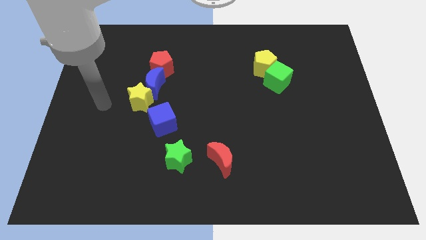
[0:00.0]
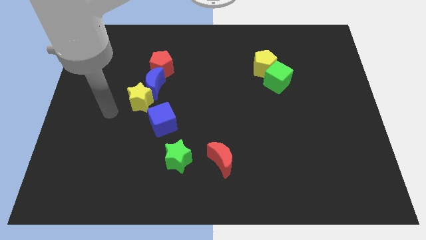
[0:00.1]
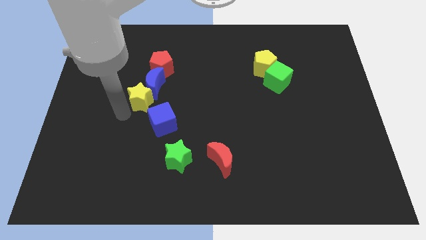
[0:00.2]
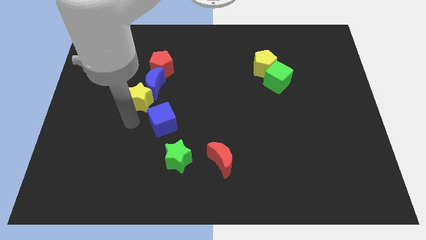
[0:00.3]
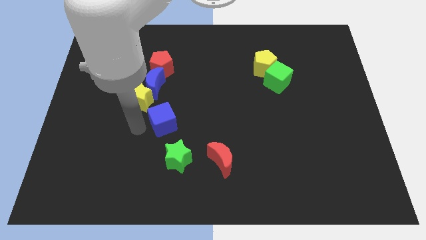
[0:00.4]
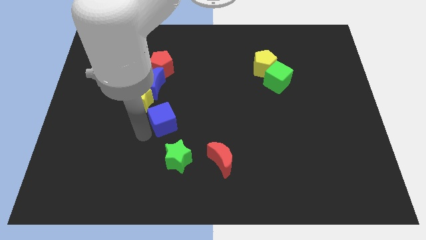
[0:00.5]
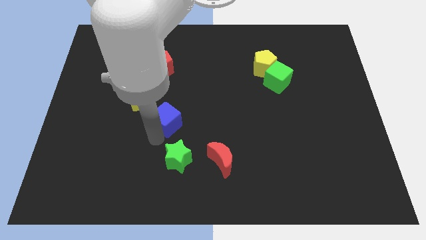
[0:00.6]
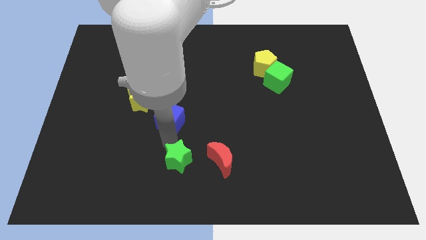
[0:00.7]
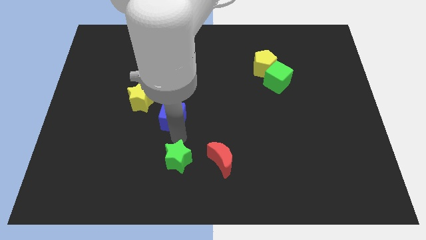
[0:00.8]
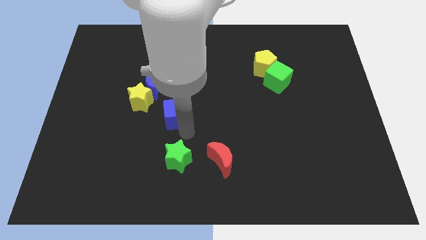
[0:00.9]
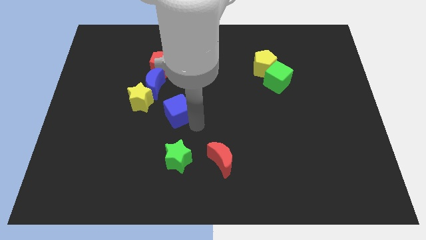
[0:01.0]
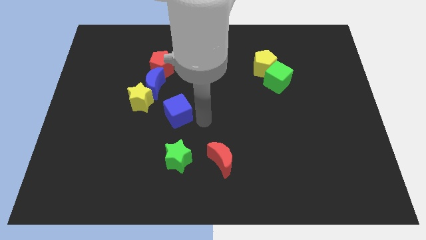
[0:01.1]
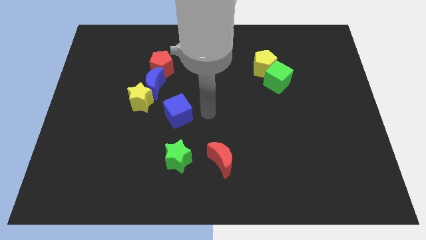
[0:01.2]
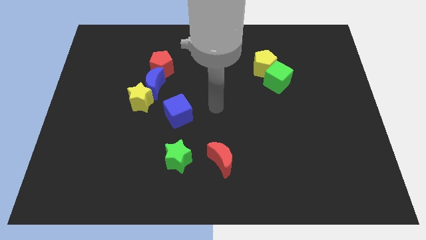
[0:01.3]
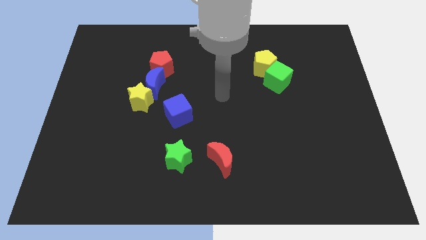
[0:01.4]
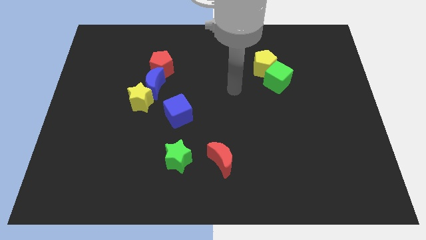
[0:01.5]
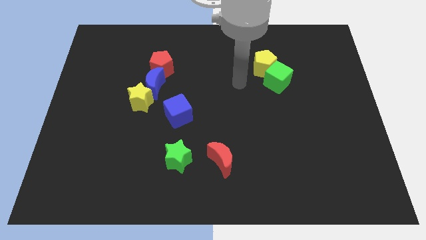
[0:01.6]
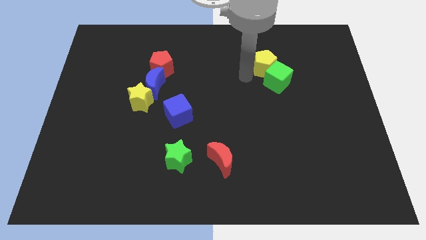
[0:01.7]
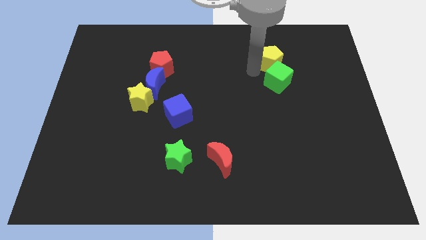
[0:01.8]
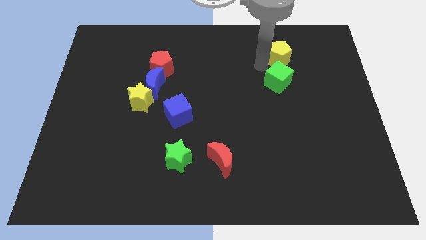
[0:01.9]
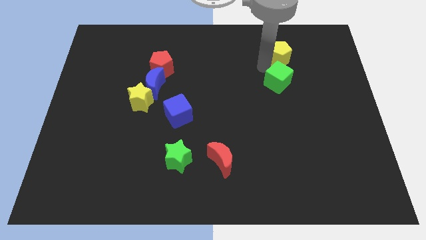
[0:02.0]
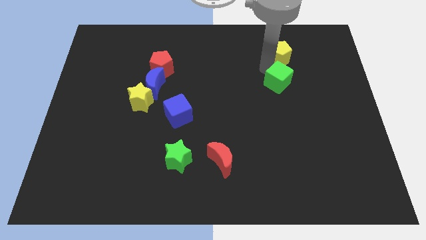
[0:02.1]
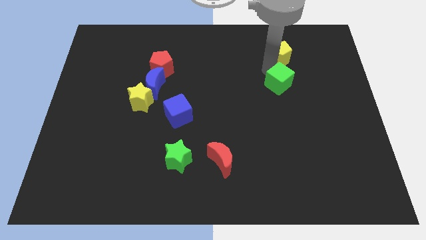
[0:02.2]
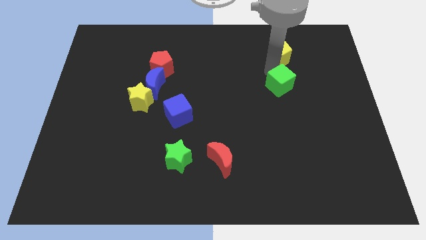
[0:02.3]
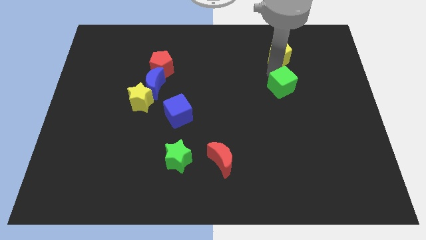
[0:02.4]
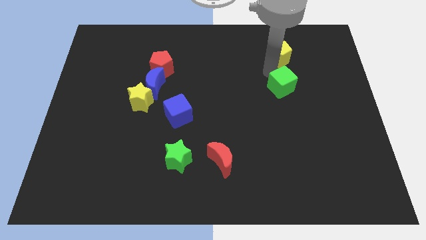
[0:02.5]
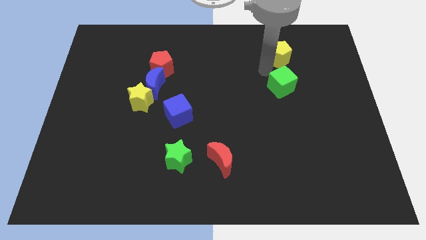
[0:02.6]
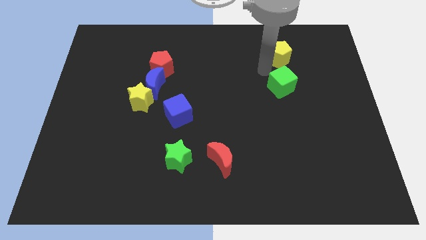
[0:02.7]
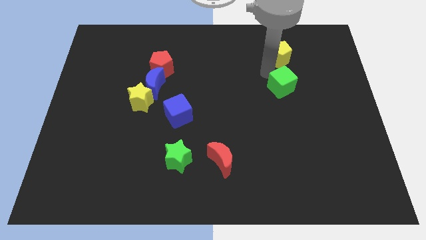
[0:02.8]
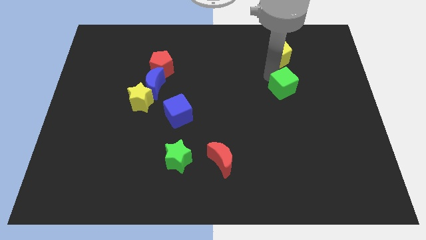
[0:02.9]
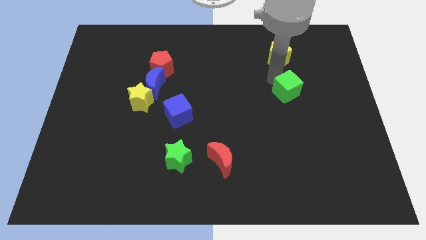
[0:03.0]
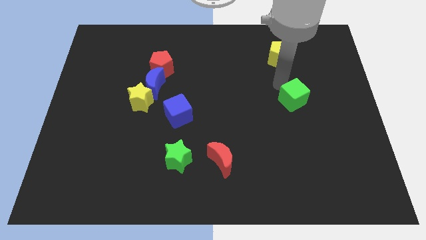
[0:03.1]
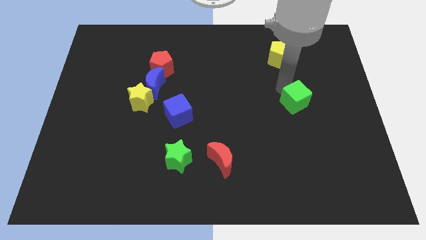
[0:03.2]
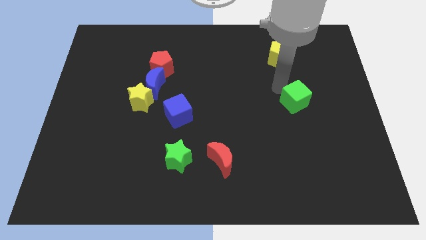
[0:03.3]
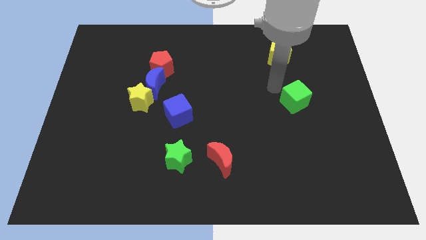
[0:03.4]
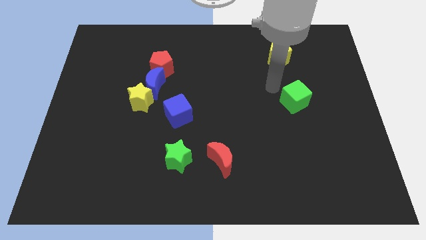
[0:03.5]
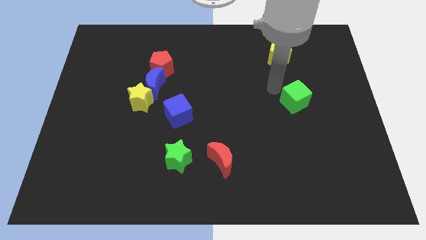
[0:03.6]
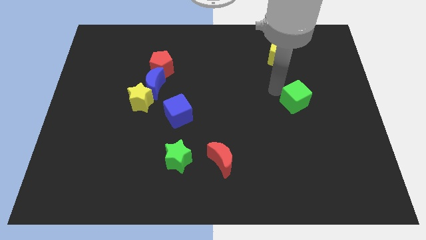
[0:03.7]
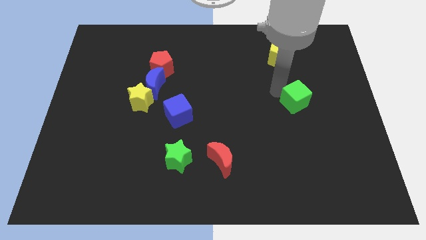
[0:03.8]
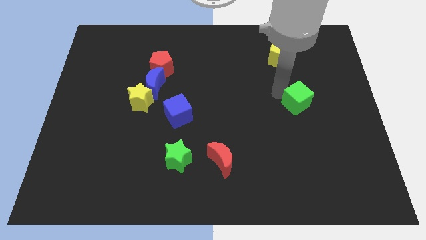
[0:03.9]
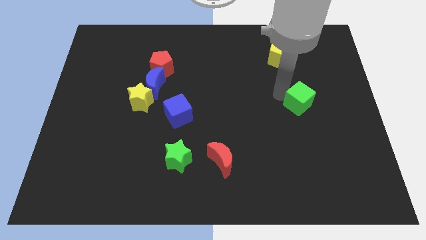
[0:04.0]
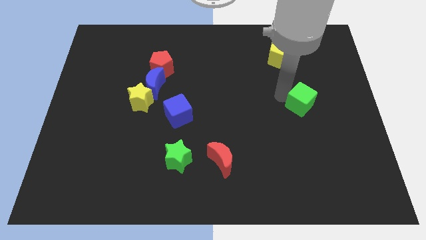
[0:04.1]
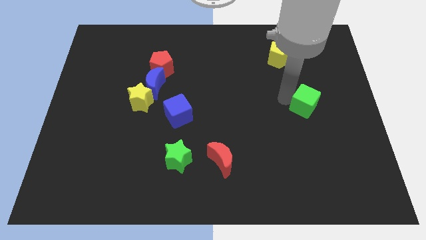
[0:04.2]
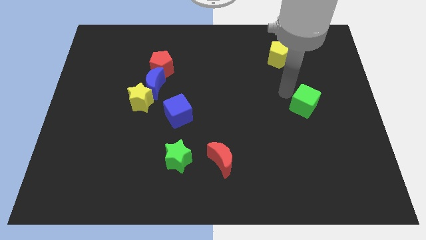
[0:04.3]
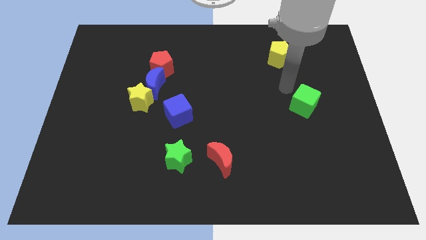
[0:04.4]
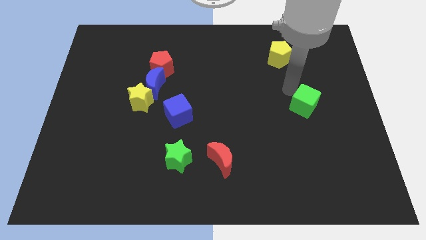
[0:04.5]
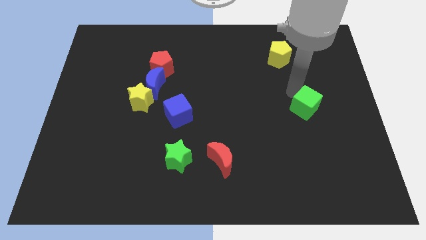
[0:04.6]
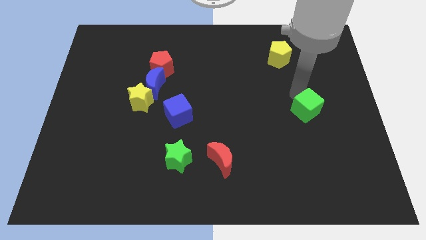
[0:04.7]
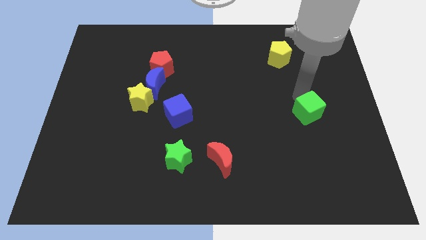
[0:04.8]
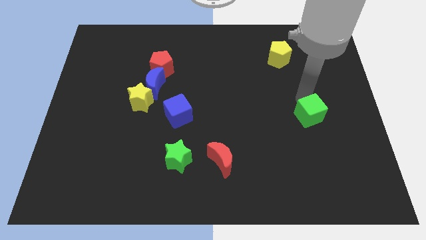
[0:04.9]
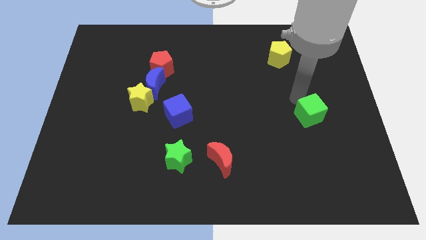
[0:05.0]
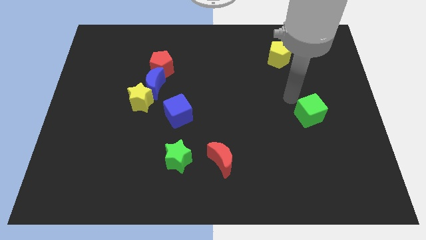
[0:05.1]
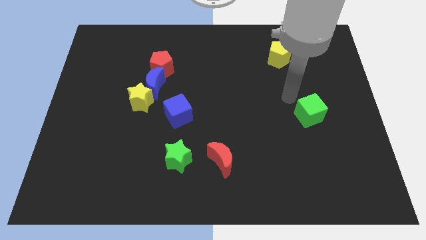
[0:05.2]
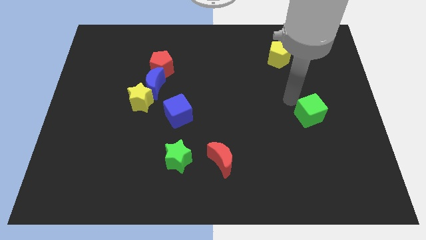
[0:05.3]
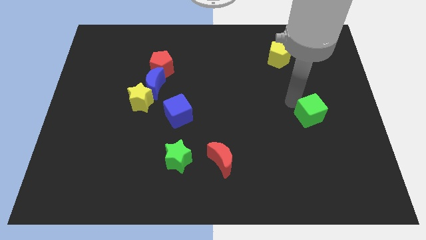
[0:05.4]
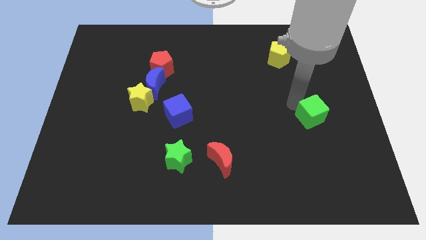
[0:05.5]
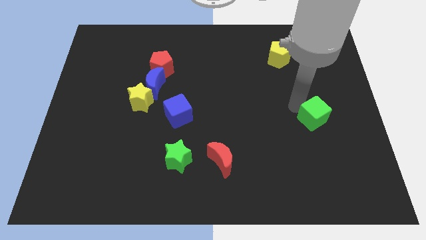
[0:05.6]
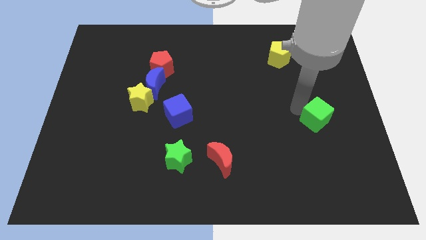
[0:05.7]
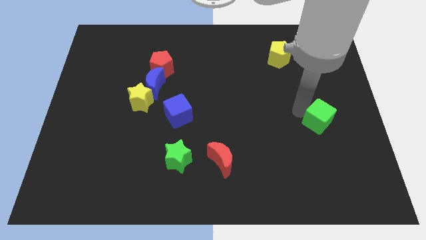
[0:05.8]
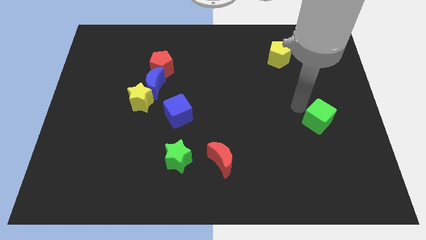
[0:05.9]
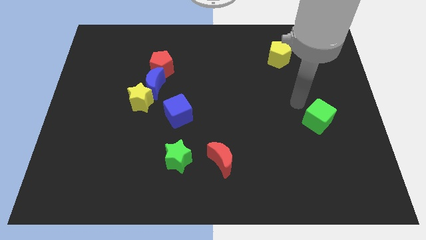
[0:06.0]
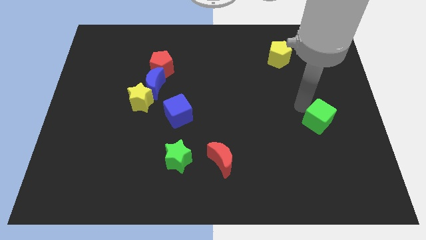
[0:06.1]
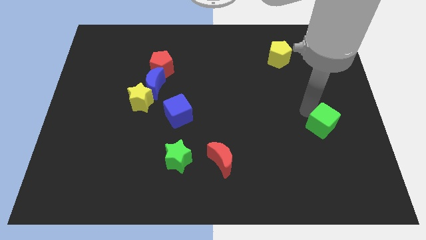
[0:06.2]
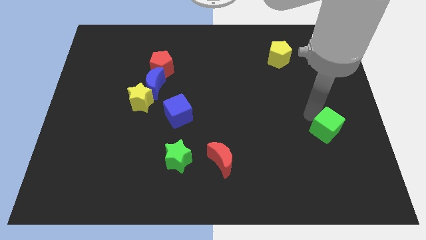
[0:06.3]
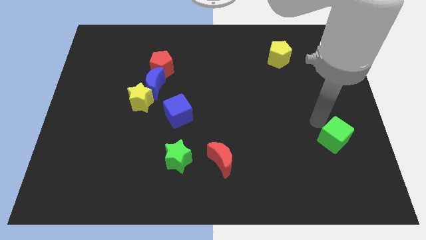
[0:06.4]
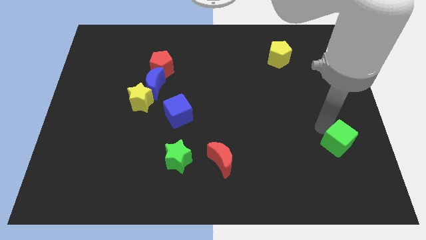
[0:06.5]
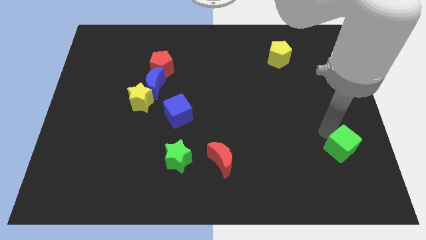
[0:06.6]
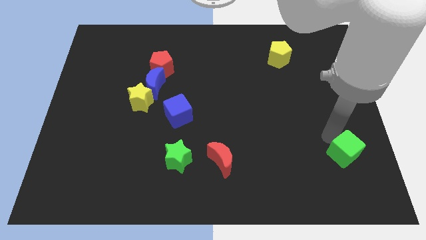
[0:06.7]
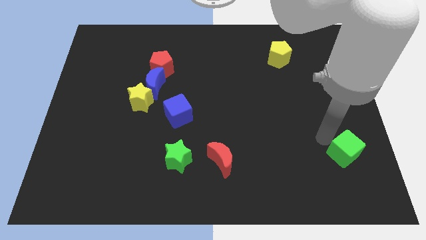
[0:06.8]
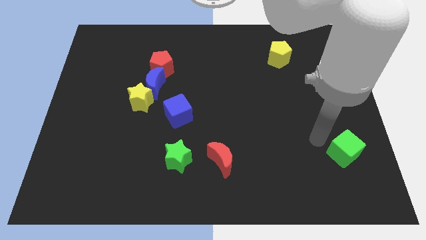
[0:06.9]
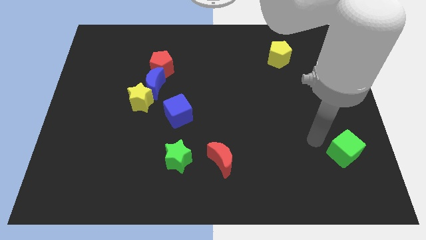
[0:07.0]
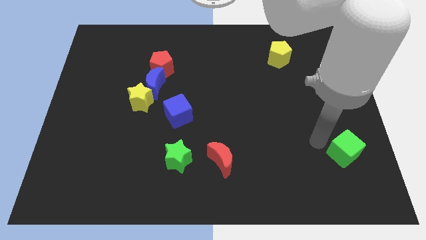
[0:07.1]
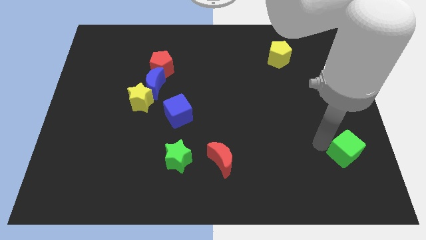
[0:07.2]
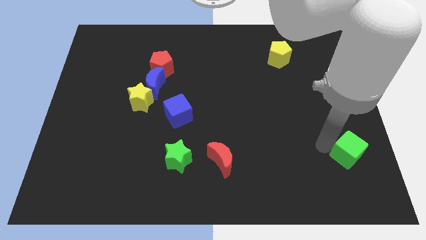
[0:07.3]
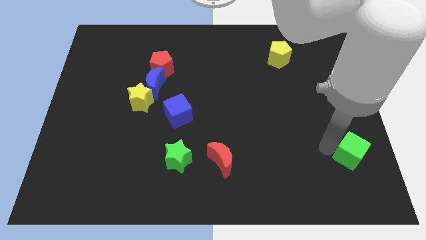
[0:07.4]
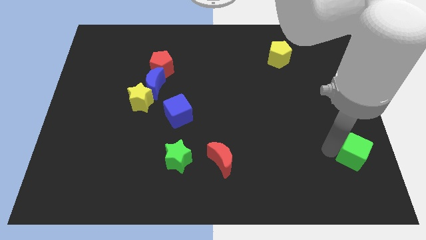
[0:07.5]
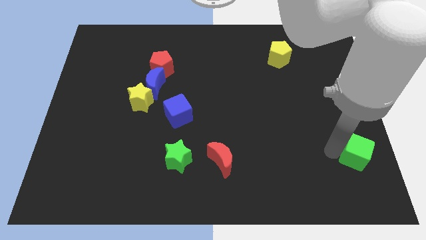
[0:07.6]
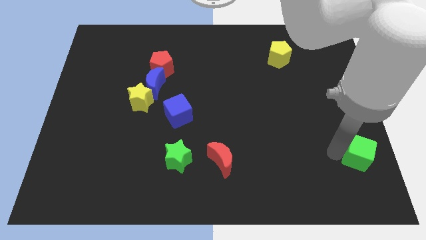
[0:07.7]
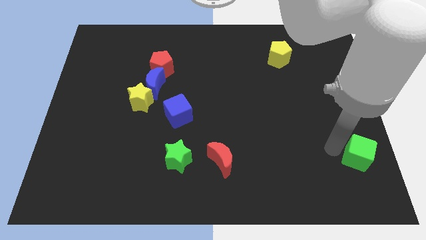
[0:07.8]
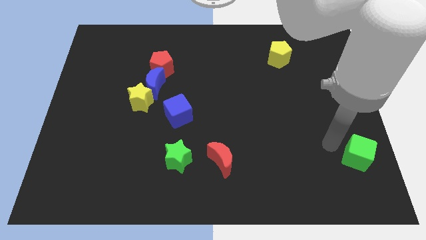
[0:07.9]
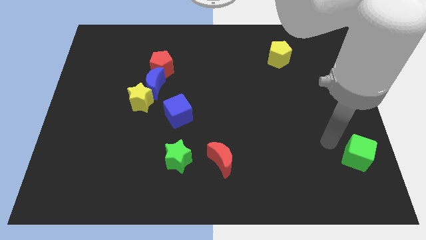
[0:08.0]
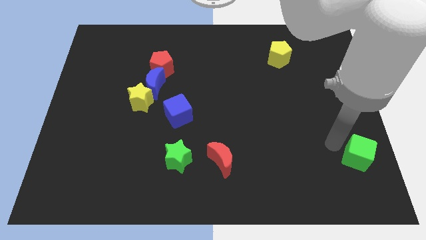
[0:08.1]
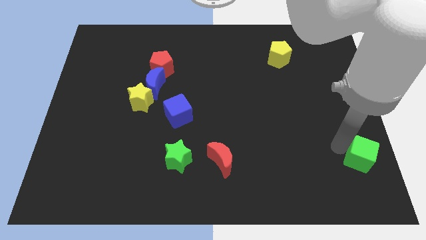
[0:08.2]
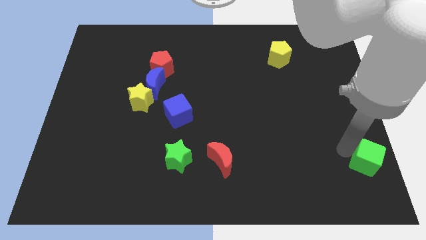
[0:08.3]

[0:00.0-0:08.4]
slide the green cube to the bottom right corner
